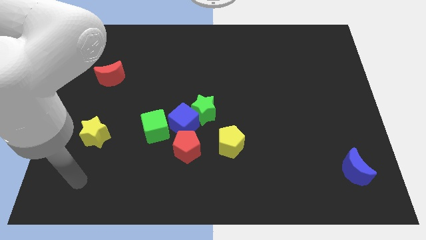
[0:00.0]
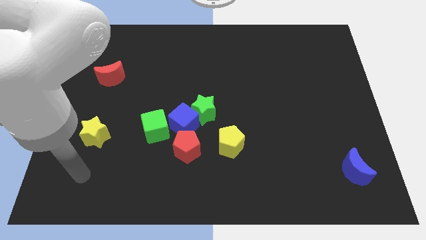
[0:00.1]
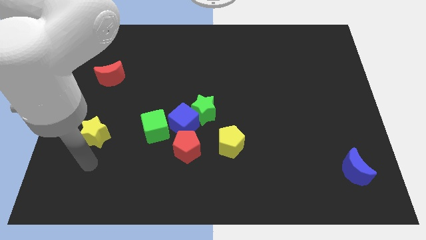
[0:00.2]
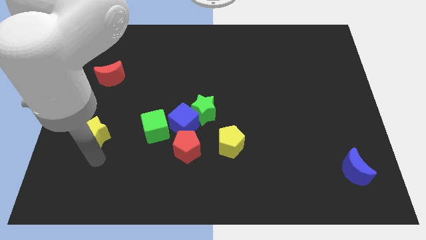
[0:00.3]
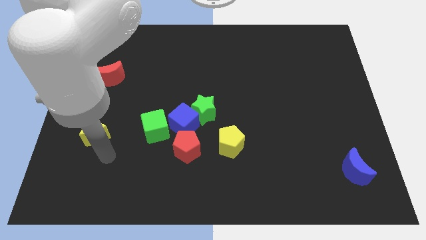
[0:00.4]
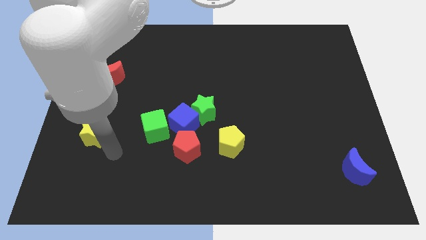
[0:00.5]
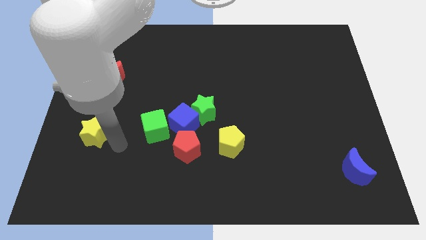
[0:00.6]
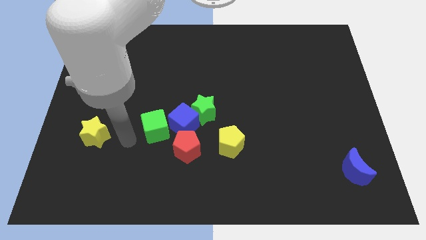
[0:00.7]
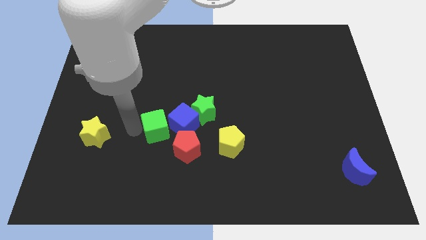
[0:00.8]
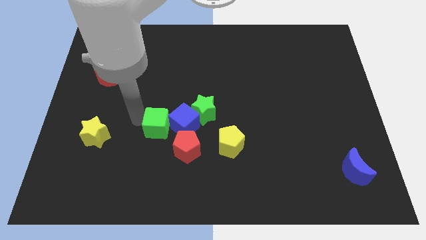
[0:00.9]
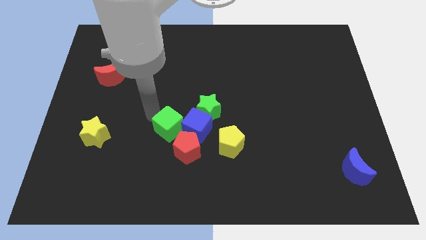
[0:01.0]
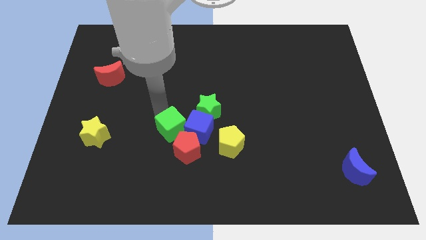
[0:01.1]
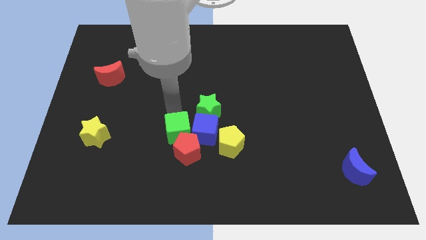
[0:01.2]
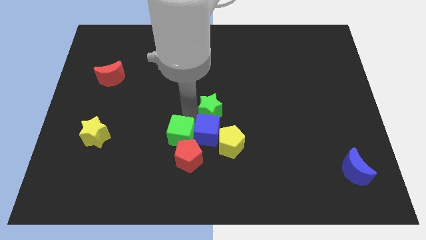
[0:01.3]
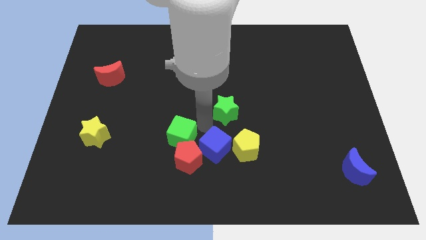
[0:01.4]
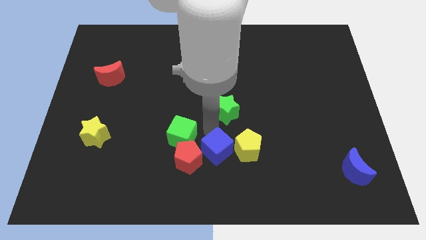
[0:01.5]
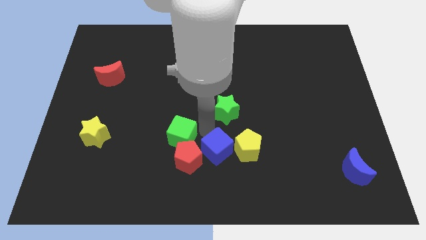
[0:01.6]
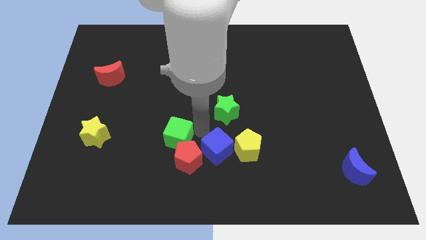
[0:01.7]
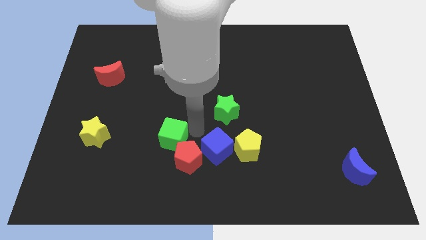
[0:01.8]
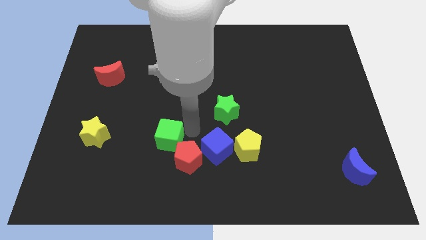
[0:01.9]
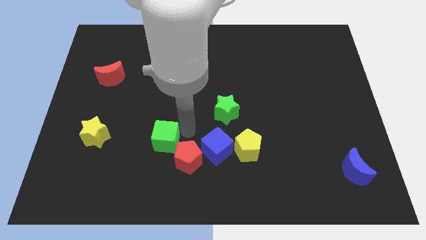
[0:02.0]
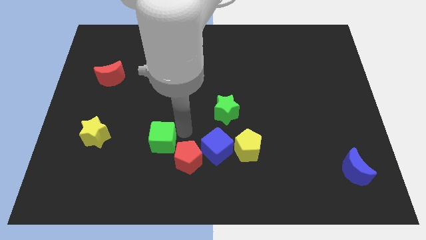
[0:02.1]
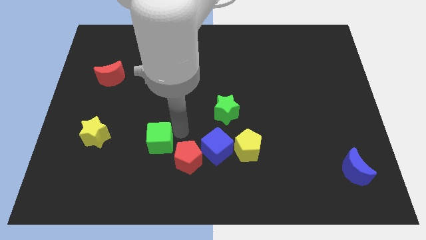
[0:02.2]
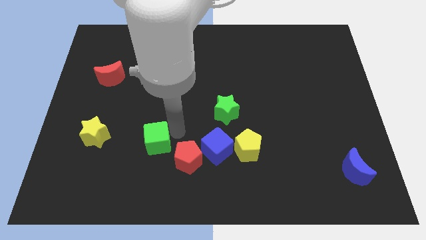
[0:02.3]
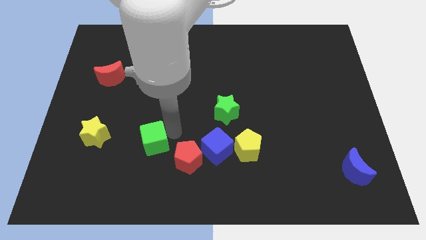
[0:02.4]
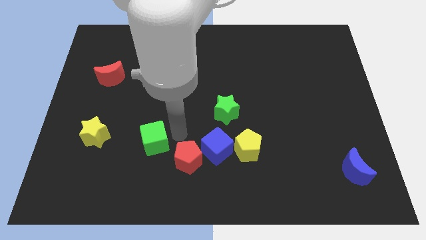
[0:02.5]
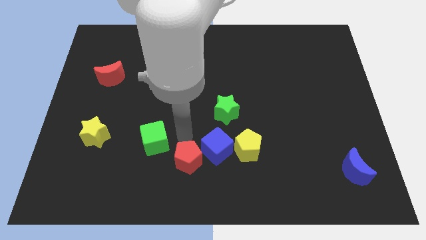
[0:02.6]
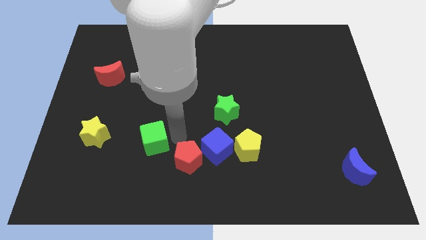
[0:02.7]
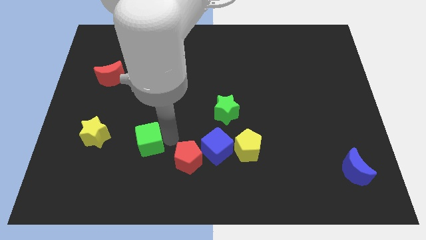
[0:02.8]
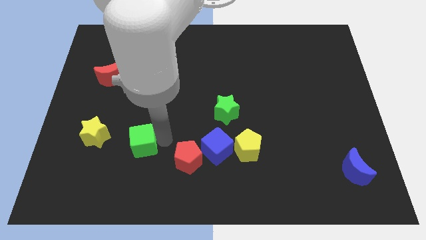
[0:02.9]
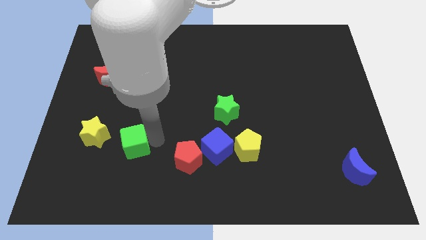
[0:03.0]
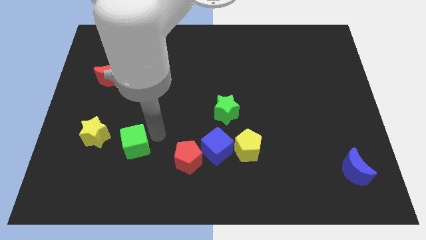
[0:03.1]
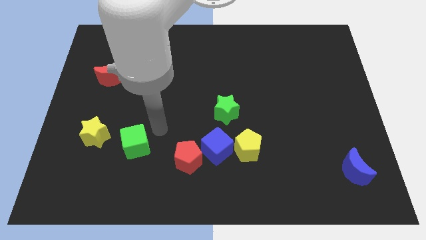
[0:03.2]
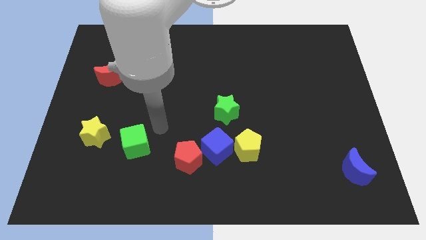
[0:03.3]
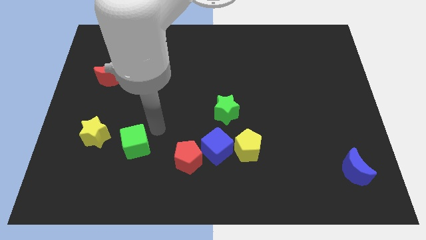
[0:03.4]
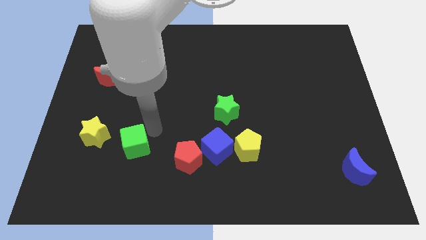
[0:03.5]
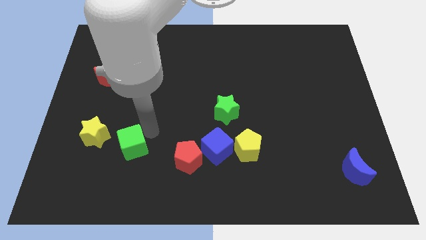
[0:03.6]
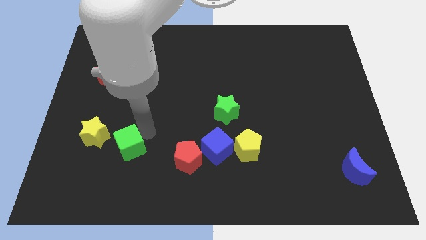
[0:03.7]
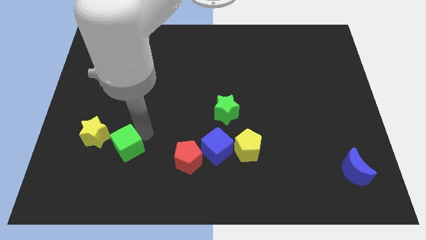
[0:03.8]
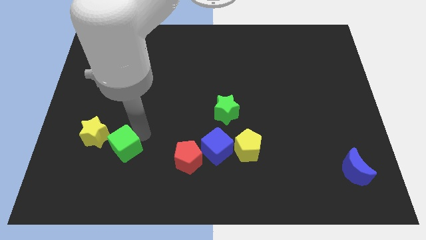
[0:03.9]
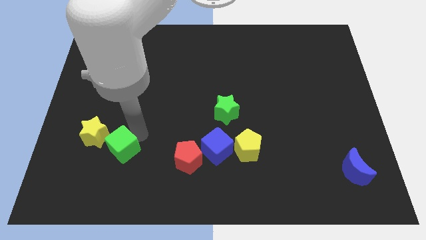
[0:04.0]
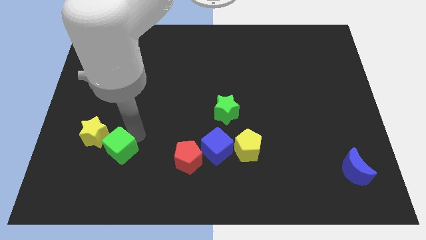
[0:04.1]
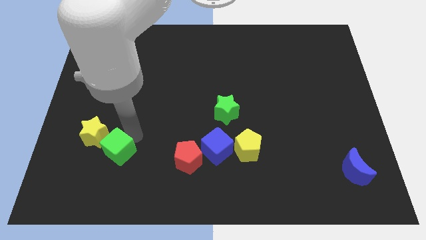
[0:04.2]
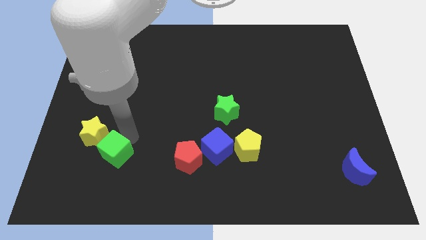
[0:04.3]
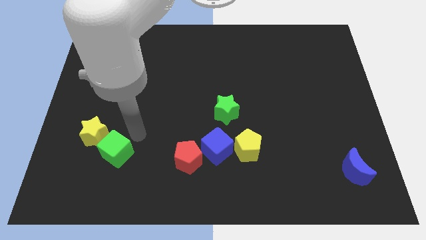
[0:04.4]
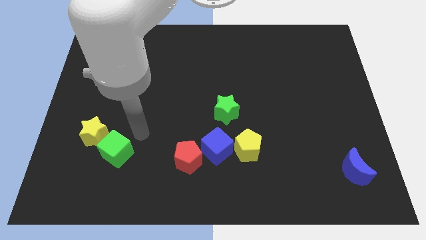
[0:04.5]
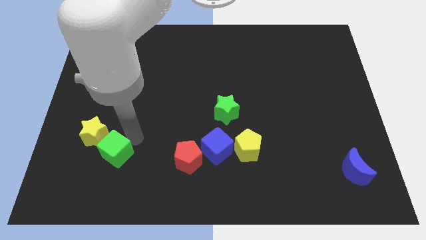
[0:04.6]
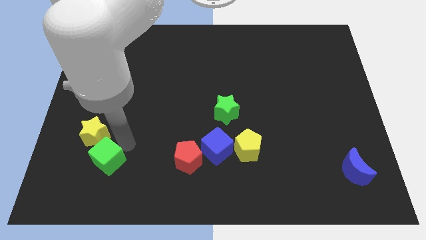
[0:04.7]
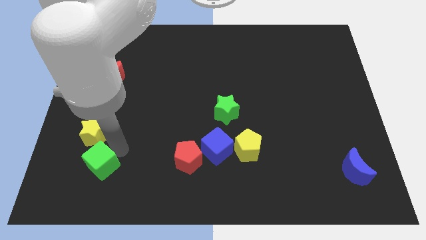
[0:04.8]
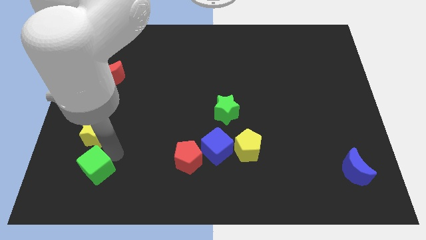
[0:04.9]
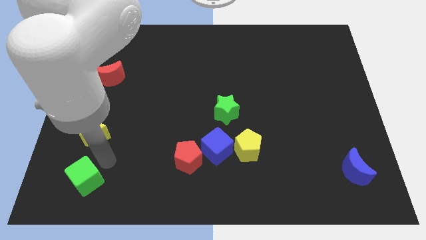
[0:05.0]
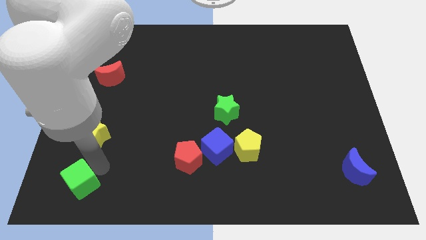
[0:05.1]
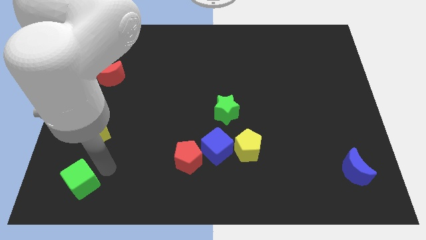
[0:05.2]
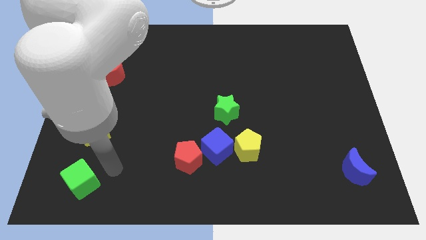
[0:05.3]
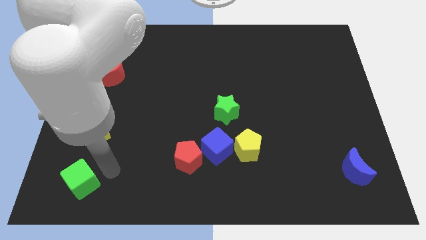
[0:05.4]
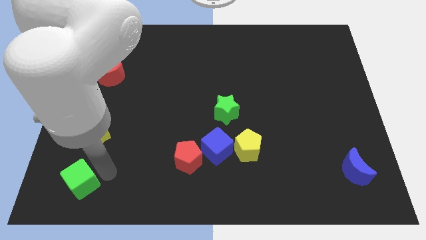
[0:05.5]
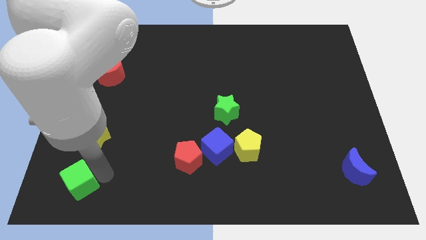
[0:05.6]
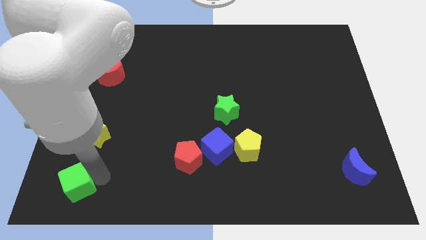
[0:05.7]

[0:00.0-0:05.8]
push the green cube to the bottom left
